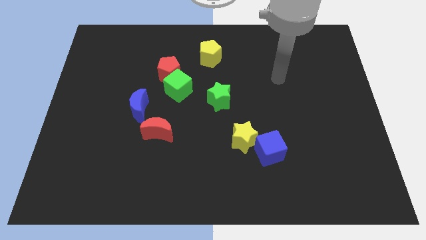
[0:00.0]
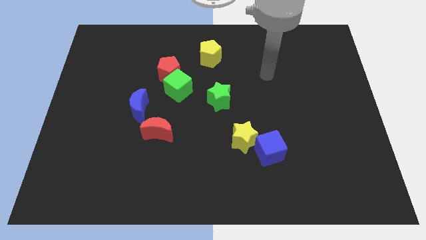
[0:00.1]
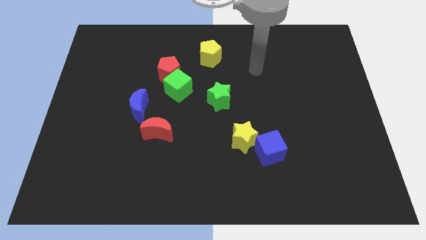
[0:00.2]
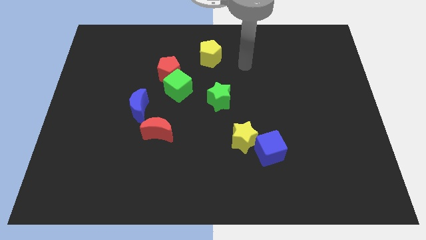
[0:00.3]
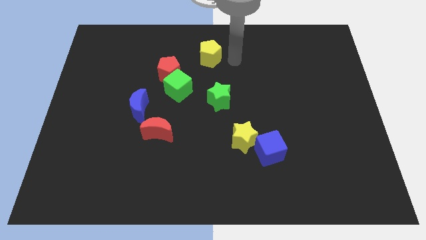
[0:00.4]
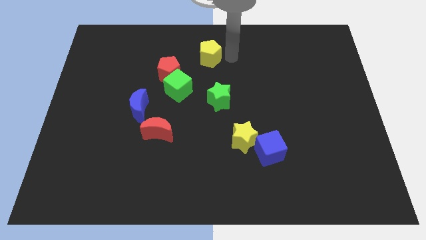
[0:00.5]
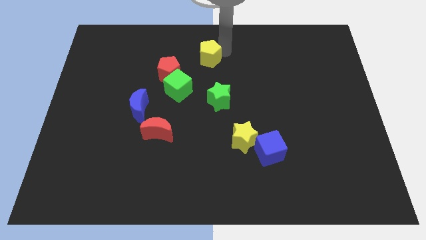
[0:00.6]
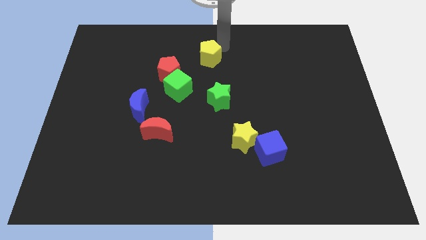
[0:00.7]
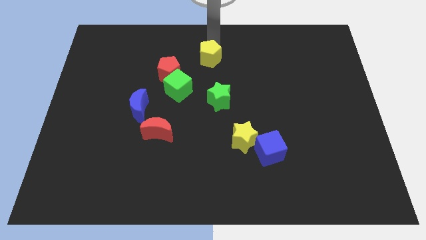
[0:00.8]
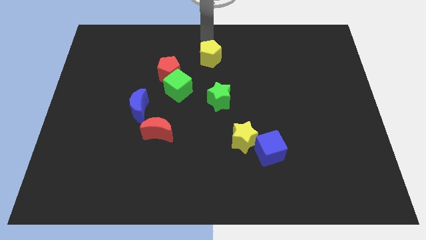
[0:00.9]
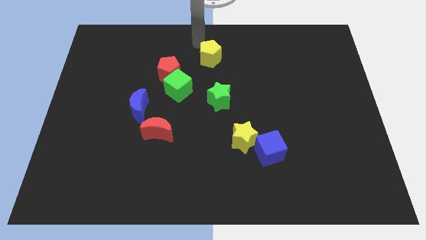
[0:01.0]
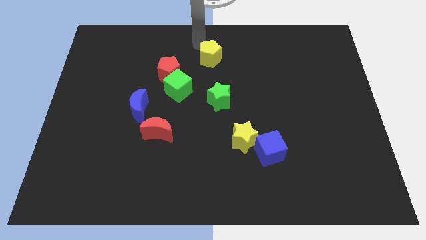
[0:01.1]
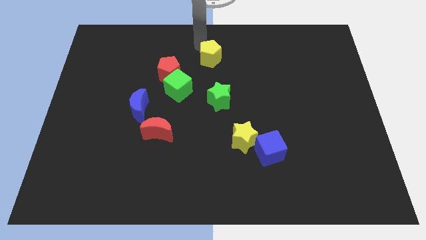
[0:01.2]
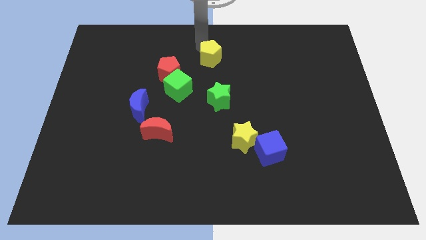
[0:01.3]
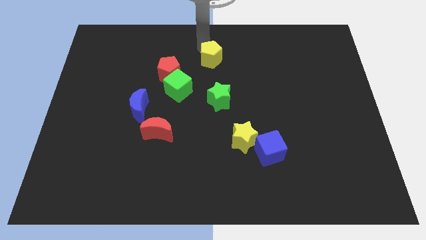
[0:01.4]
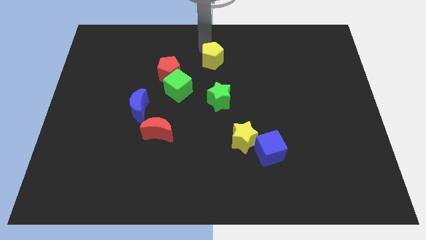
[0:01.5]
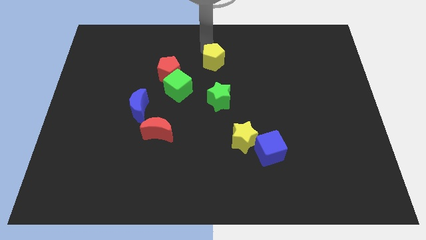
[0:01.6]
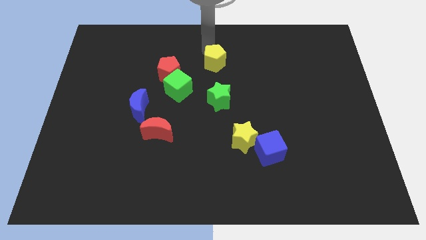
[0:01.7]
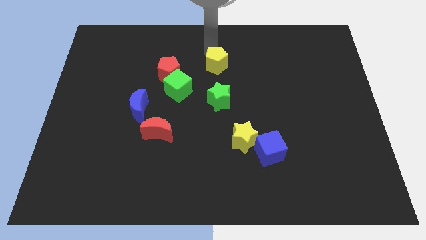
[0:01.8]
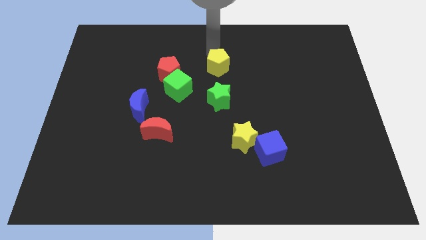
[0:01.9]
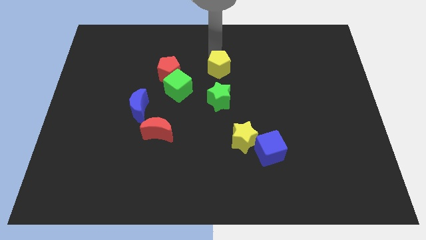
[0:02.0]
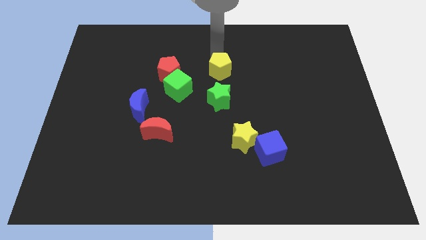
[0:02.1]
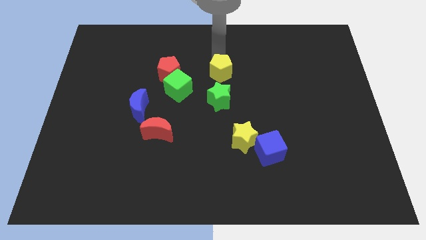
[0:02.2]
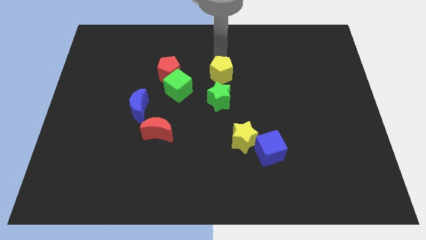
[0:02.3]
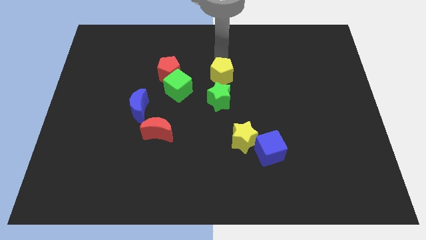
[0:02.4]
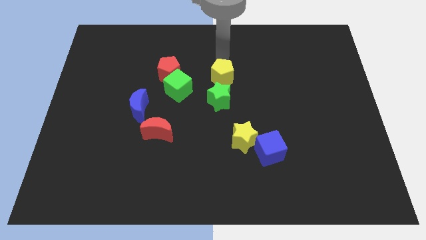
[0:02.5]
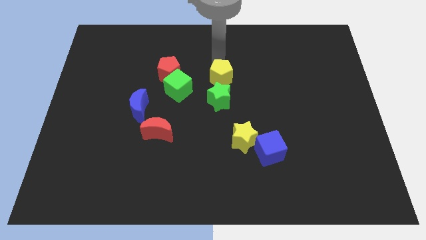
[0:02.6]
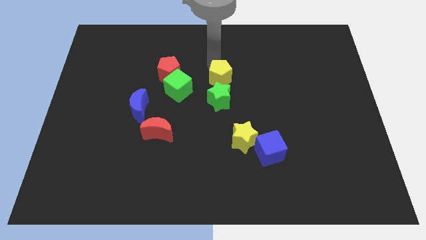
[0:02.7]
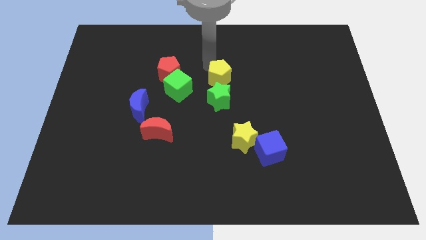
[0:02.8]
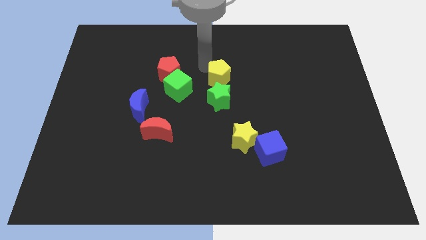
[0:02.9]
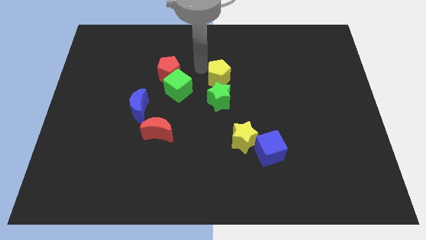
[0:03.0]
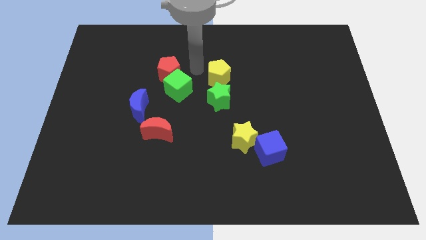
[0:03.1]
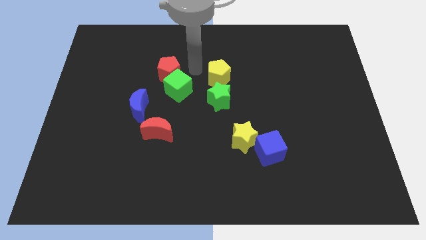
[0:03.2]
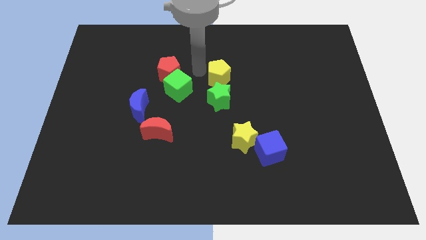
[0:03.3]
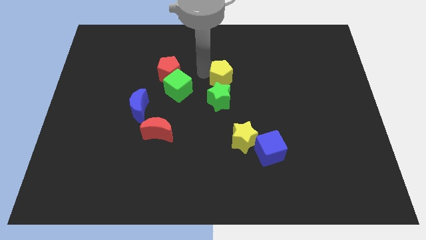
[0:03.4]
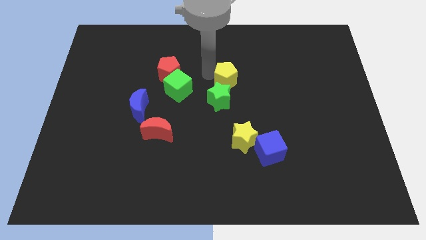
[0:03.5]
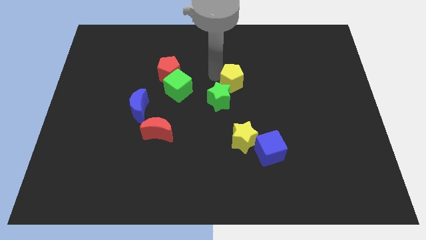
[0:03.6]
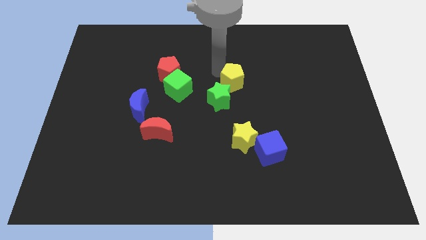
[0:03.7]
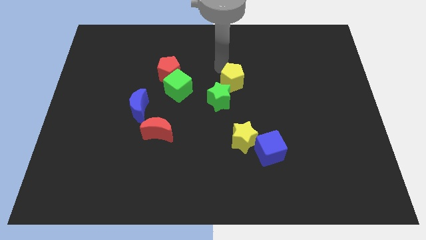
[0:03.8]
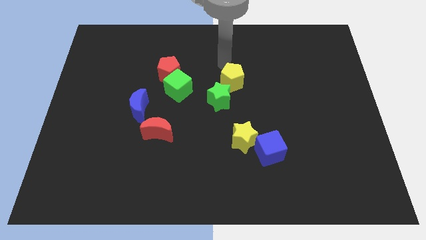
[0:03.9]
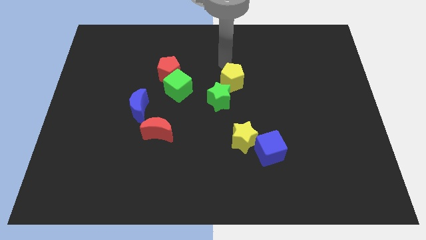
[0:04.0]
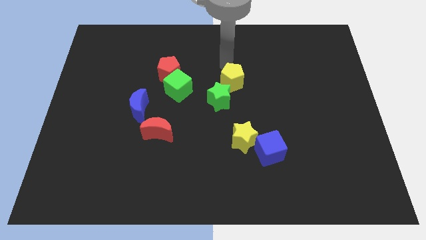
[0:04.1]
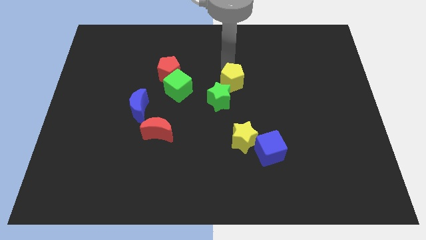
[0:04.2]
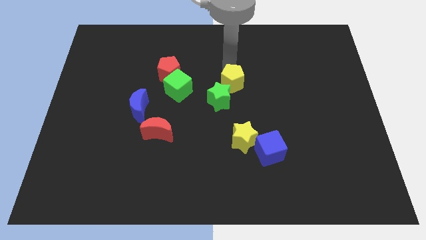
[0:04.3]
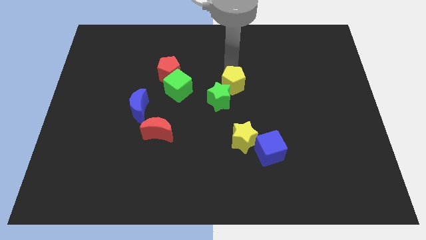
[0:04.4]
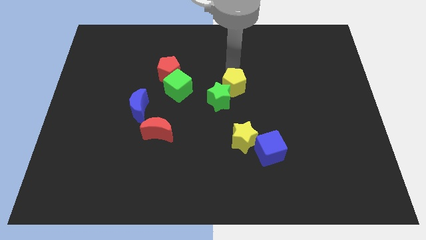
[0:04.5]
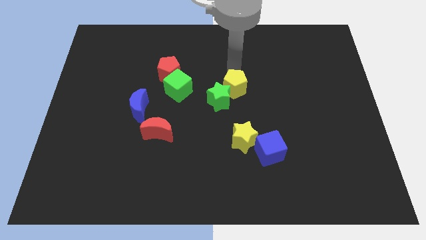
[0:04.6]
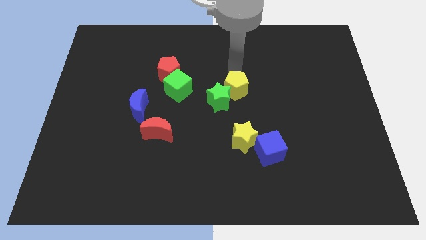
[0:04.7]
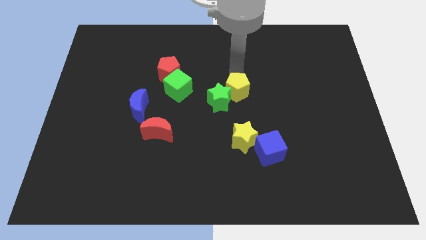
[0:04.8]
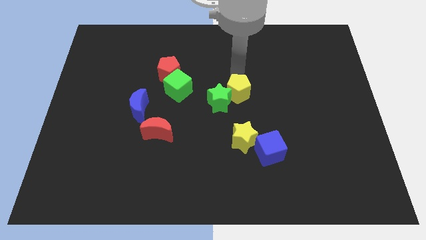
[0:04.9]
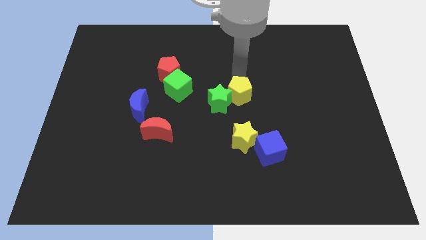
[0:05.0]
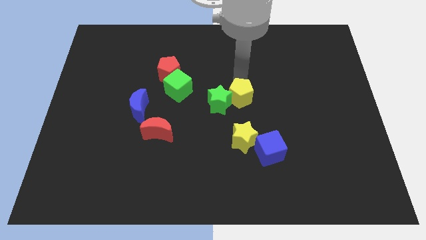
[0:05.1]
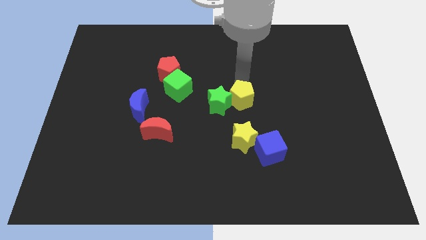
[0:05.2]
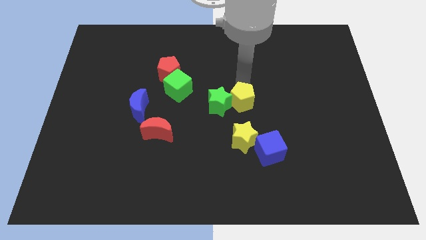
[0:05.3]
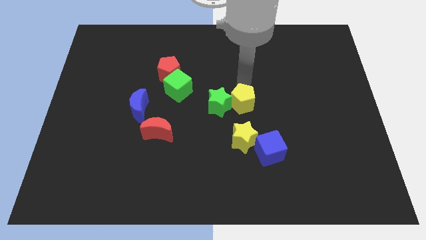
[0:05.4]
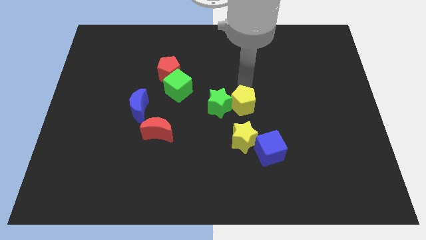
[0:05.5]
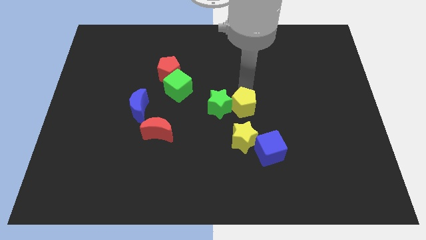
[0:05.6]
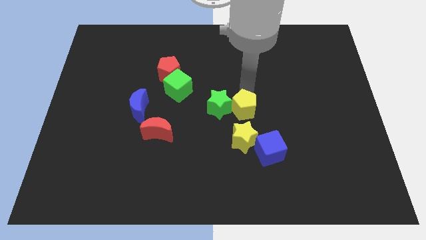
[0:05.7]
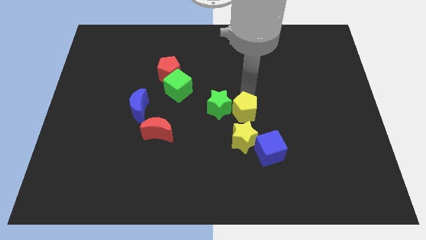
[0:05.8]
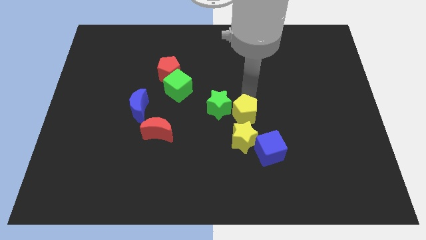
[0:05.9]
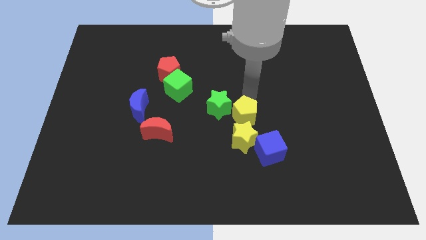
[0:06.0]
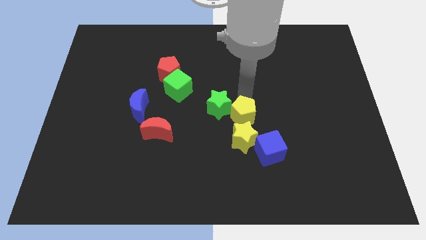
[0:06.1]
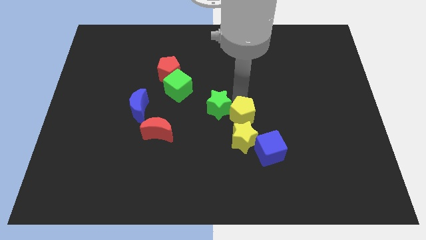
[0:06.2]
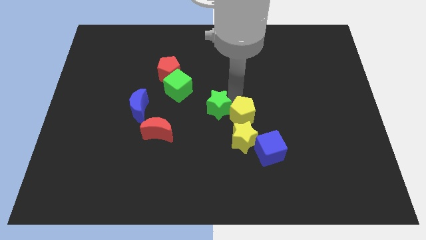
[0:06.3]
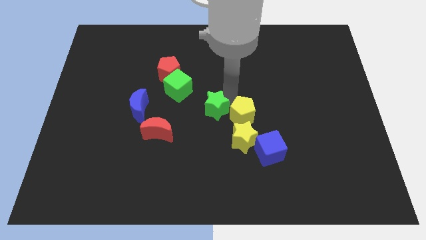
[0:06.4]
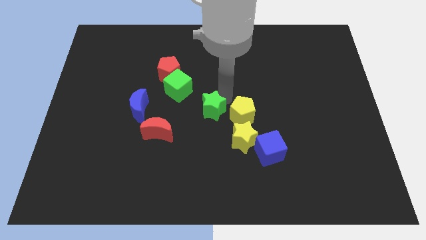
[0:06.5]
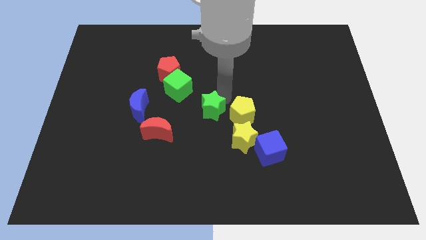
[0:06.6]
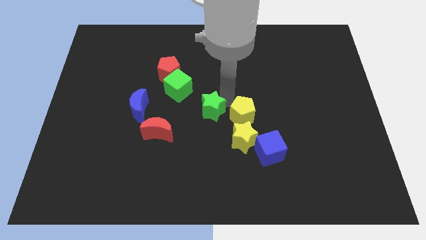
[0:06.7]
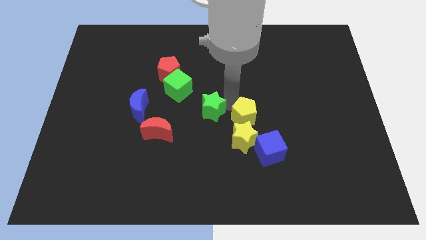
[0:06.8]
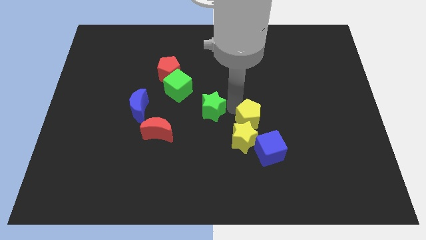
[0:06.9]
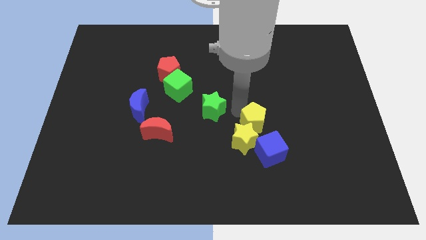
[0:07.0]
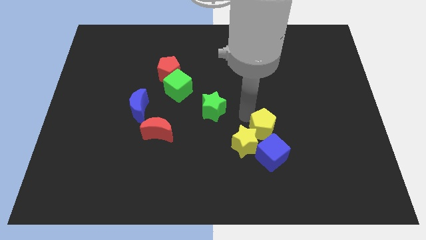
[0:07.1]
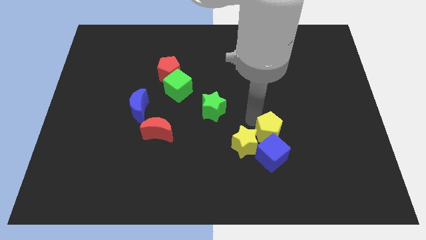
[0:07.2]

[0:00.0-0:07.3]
put the yellow pentagon towards the blue cube
